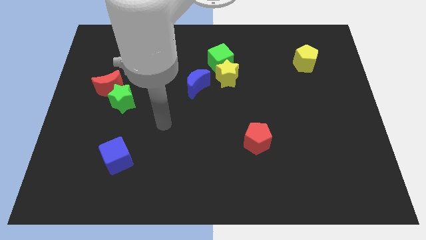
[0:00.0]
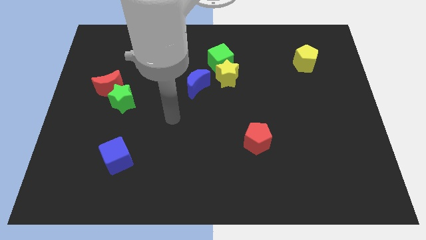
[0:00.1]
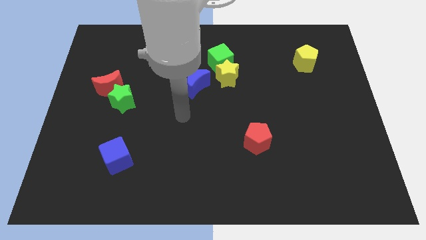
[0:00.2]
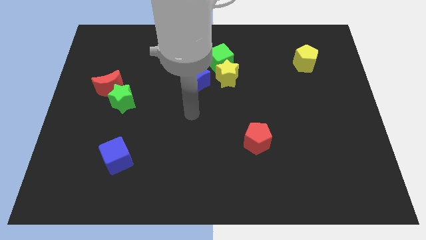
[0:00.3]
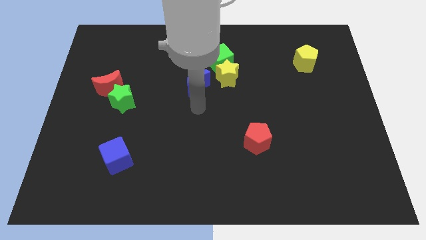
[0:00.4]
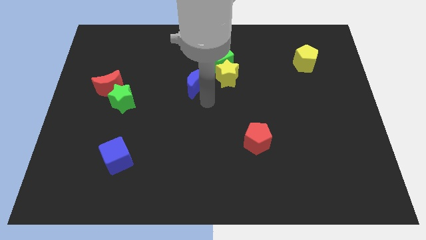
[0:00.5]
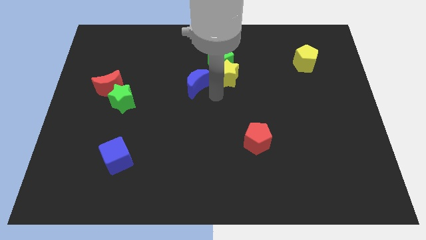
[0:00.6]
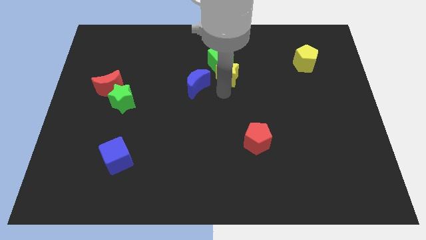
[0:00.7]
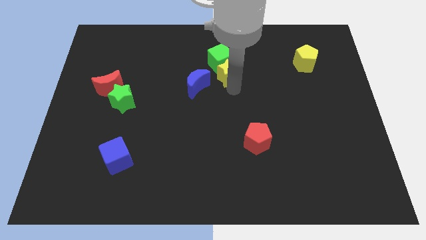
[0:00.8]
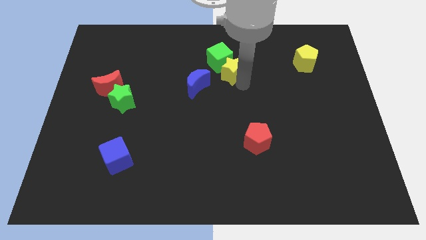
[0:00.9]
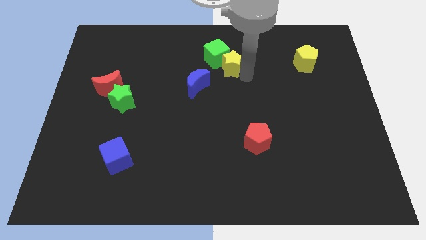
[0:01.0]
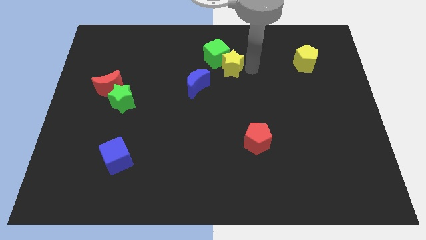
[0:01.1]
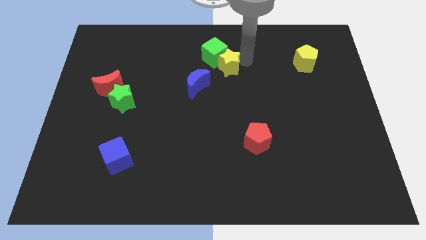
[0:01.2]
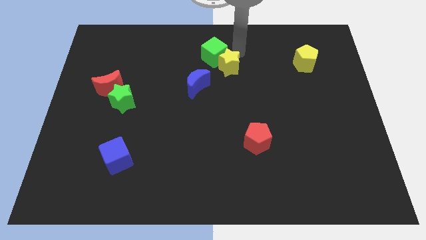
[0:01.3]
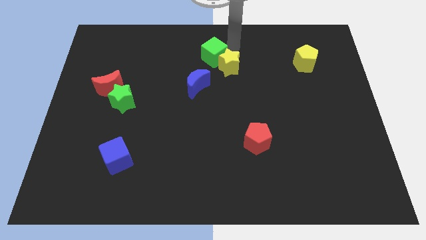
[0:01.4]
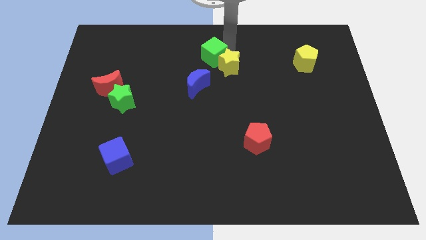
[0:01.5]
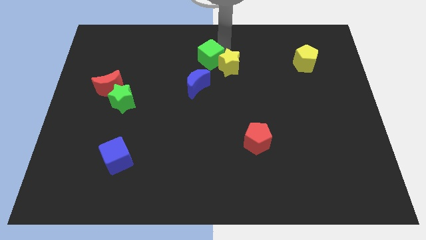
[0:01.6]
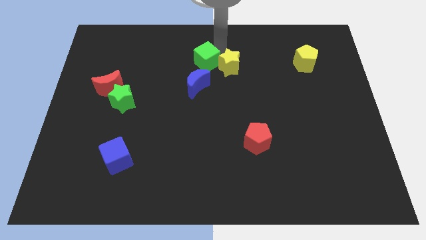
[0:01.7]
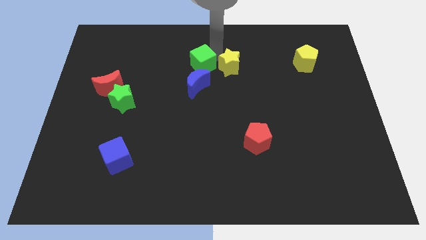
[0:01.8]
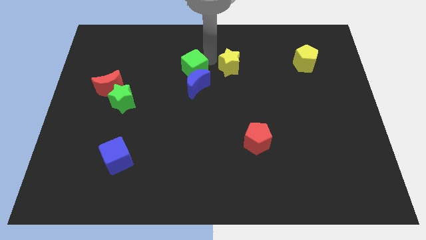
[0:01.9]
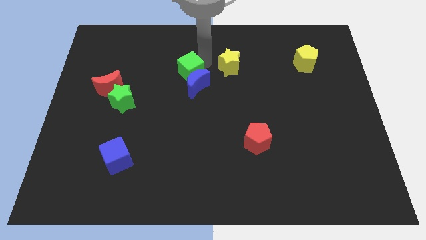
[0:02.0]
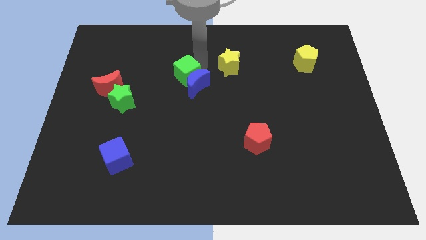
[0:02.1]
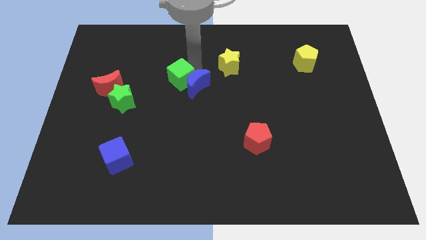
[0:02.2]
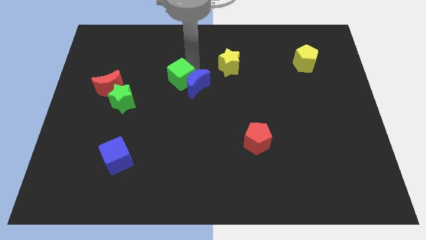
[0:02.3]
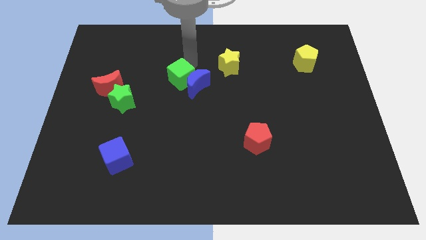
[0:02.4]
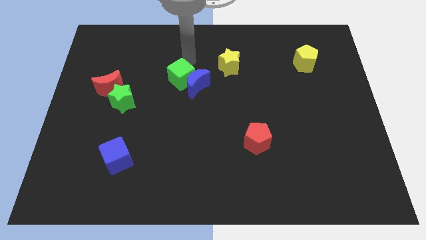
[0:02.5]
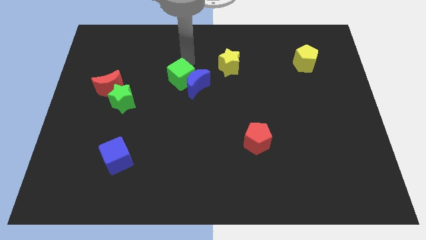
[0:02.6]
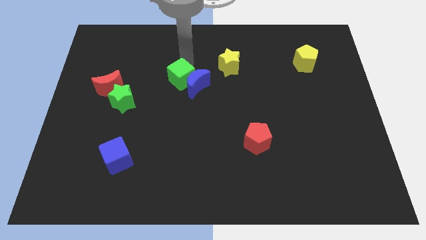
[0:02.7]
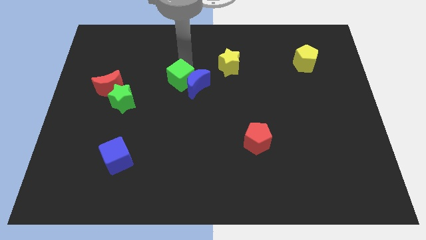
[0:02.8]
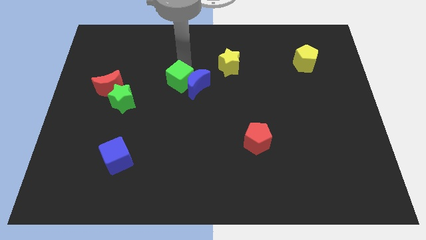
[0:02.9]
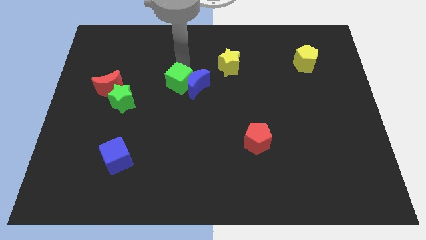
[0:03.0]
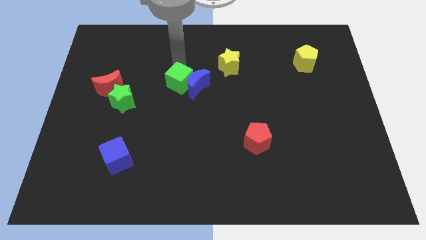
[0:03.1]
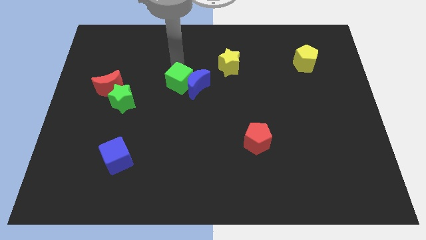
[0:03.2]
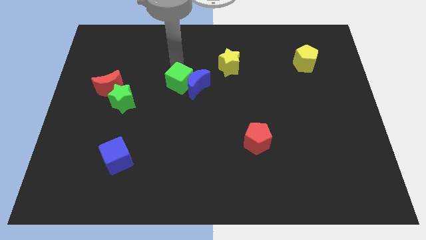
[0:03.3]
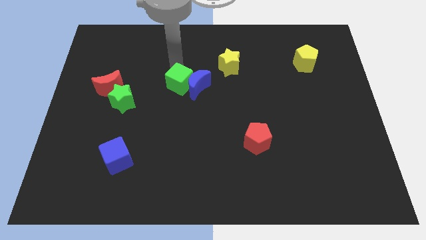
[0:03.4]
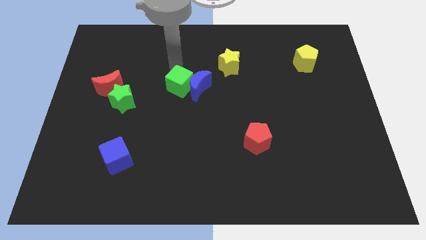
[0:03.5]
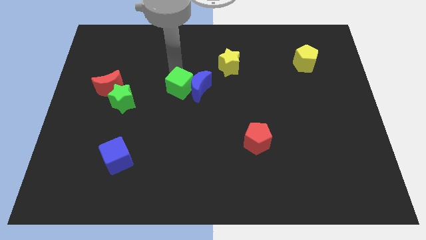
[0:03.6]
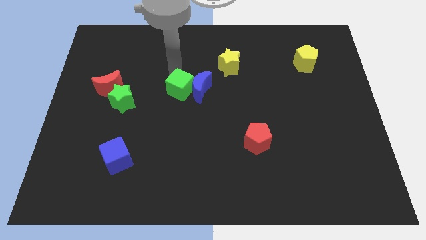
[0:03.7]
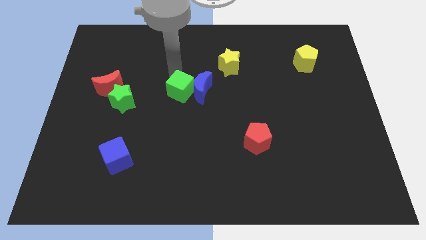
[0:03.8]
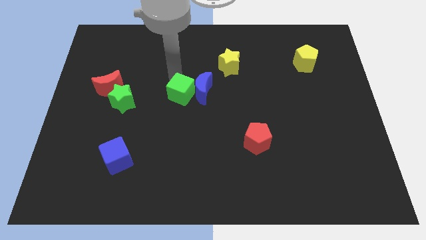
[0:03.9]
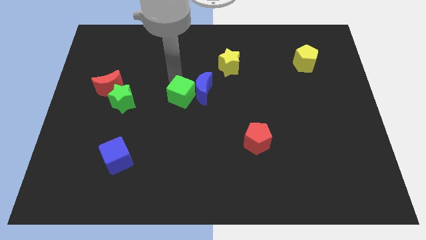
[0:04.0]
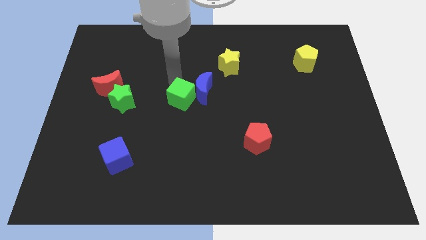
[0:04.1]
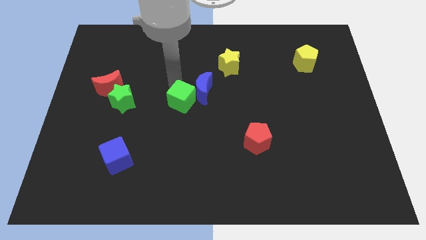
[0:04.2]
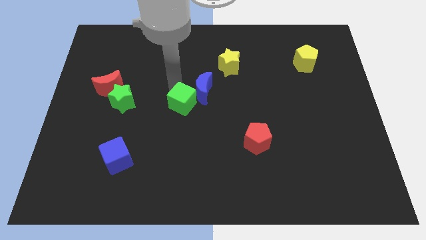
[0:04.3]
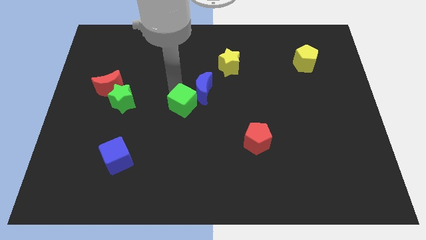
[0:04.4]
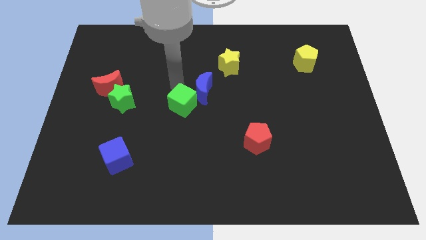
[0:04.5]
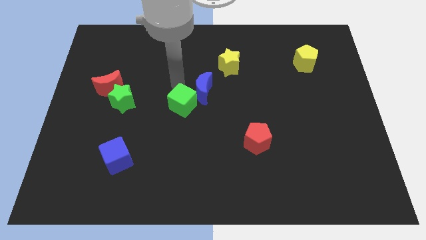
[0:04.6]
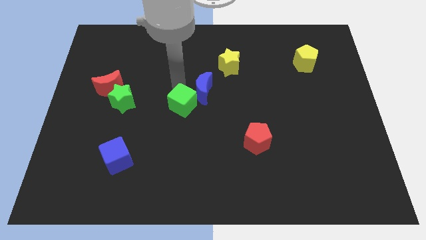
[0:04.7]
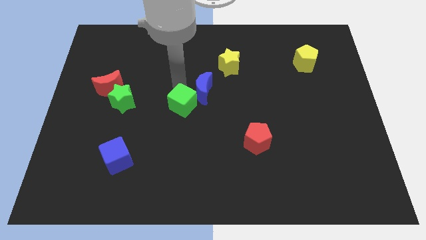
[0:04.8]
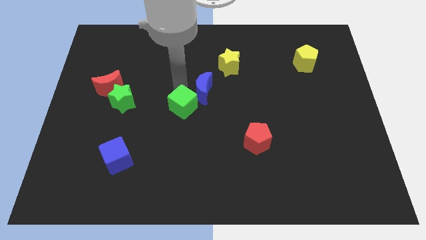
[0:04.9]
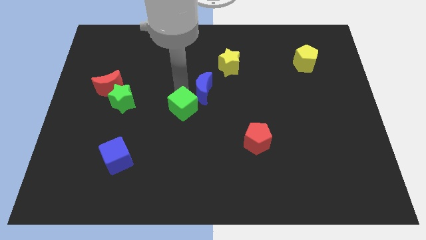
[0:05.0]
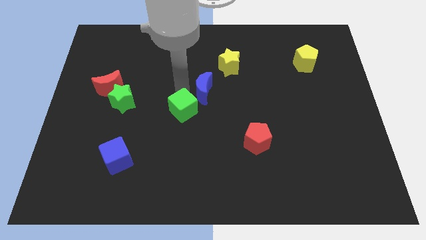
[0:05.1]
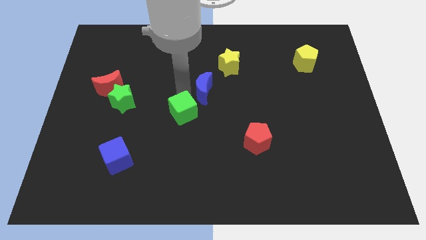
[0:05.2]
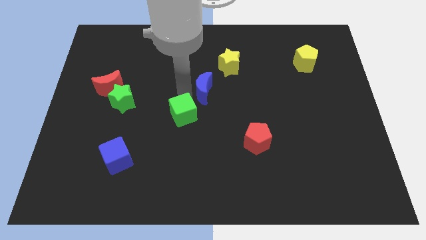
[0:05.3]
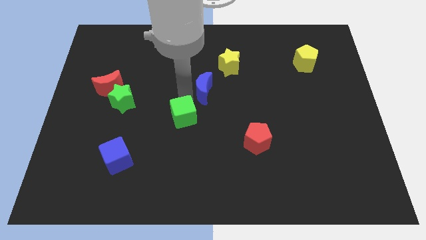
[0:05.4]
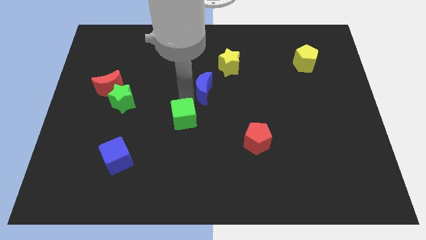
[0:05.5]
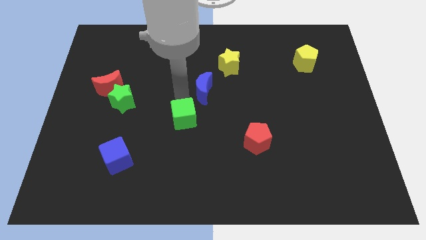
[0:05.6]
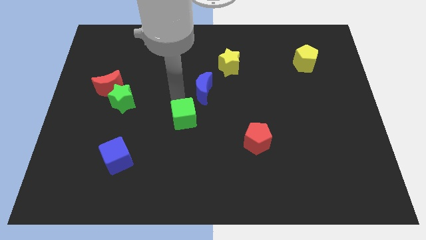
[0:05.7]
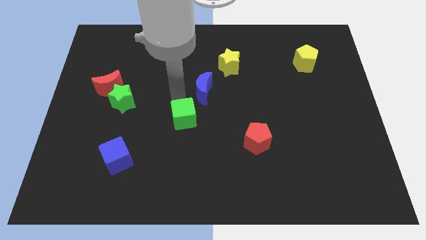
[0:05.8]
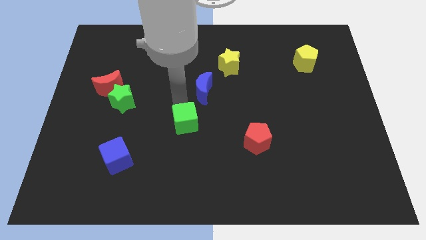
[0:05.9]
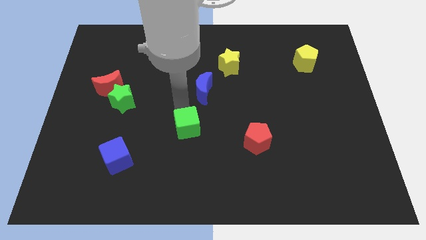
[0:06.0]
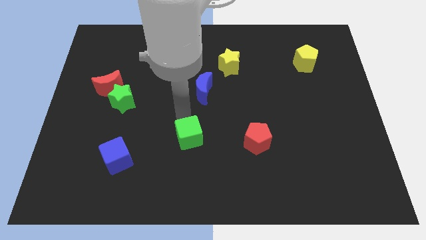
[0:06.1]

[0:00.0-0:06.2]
push the green cube downwards

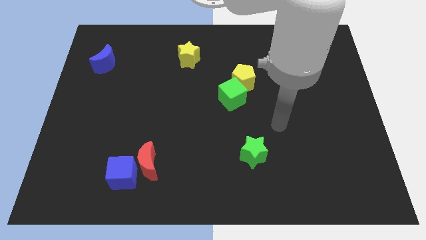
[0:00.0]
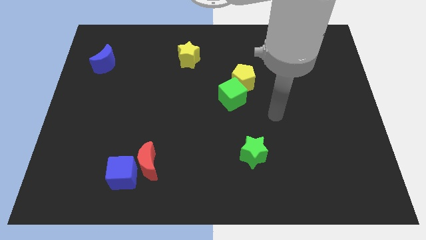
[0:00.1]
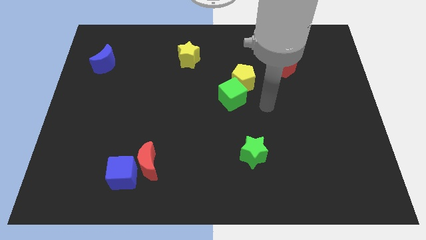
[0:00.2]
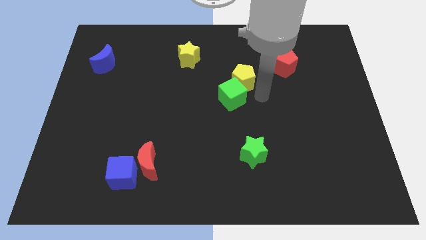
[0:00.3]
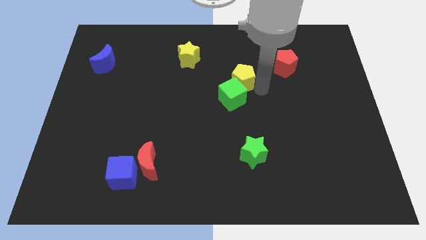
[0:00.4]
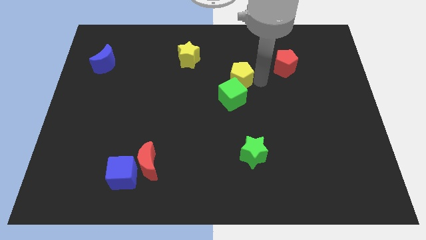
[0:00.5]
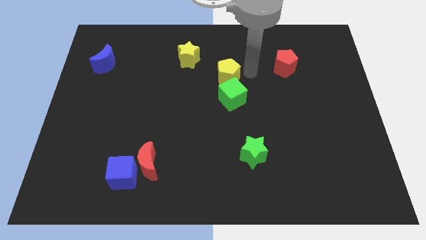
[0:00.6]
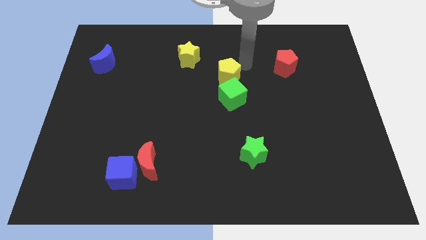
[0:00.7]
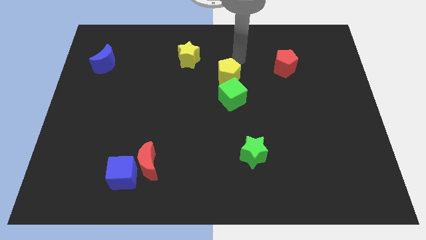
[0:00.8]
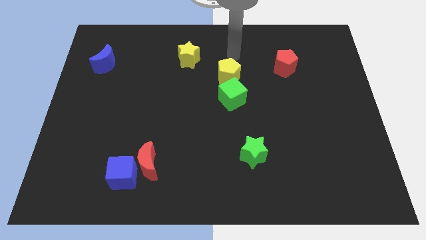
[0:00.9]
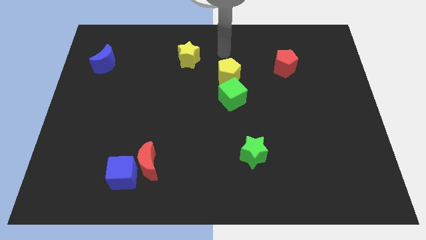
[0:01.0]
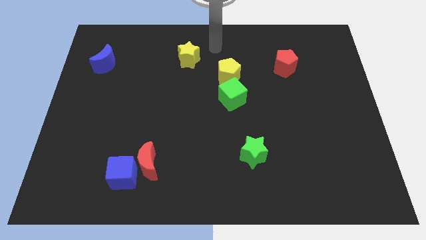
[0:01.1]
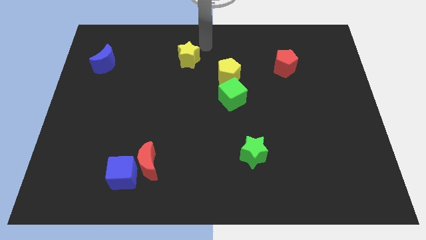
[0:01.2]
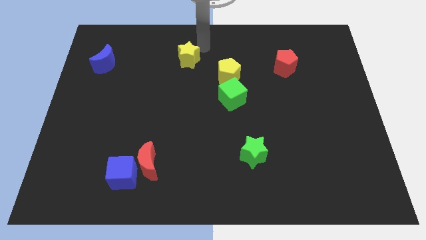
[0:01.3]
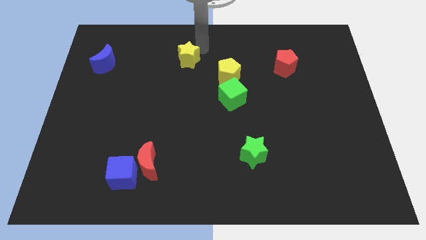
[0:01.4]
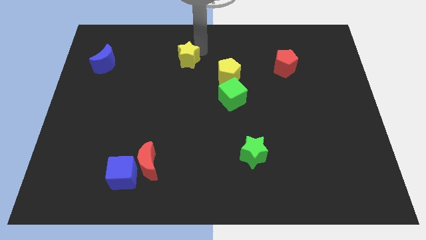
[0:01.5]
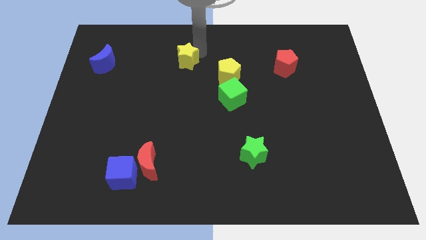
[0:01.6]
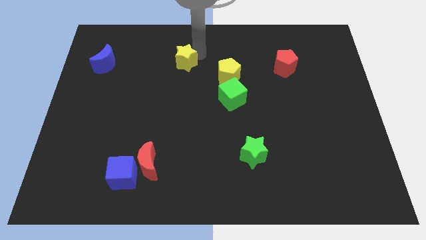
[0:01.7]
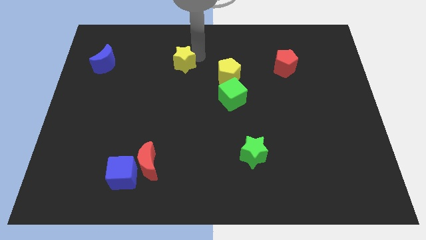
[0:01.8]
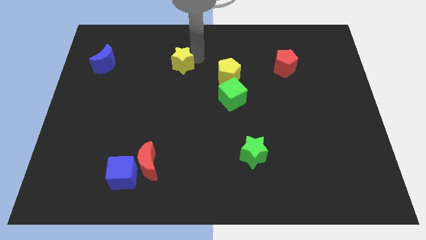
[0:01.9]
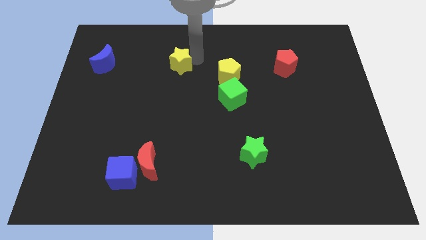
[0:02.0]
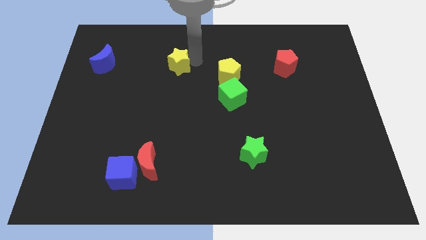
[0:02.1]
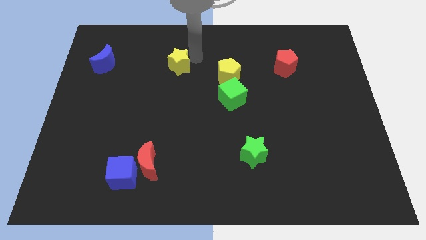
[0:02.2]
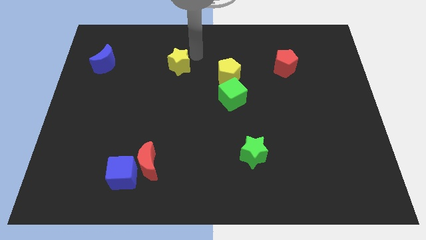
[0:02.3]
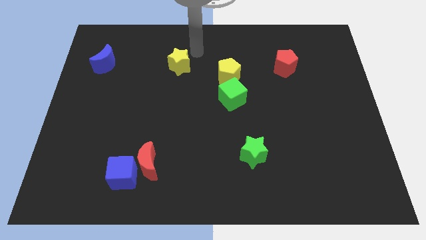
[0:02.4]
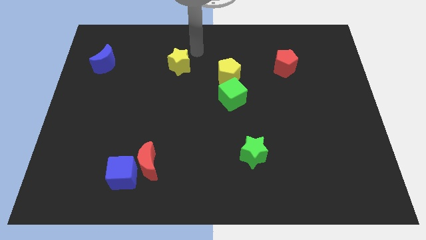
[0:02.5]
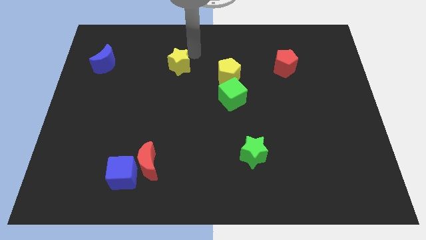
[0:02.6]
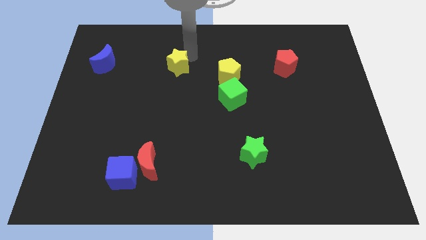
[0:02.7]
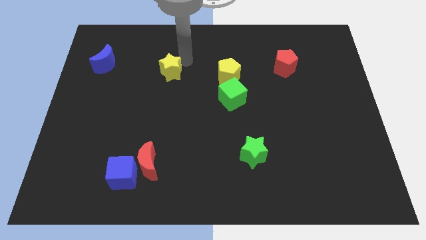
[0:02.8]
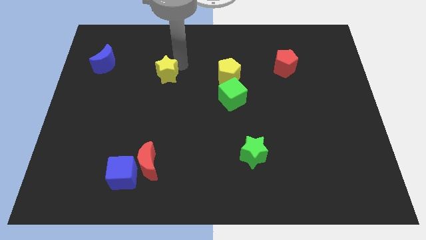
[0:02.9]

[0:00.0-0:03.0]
slide the yellow star a bit diagonally down and to the left
